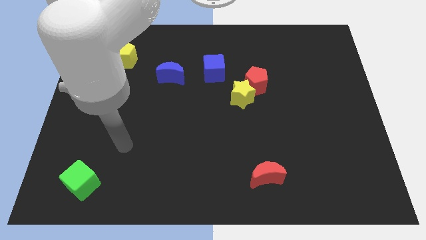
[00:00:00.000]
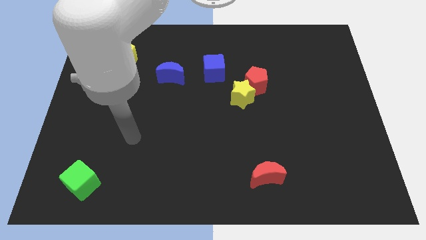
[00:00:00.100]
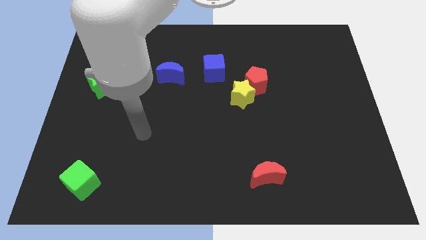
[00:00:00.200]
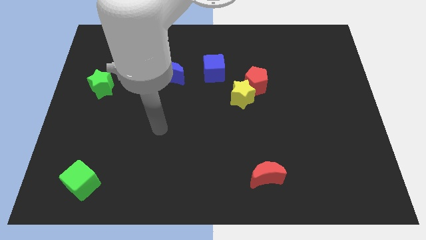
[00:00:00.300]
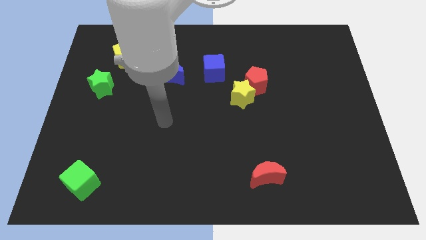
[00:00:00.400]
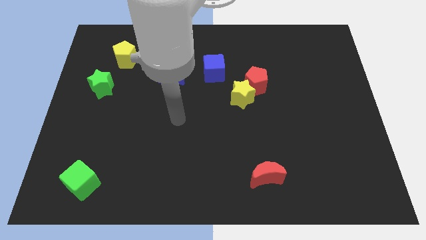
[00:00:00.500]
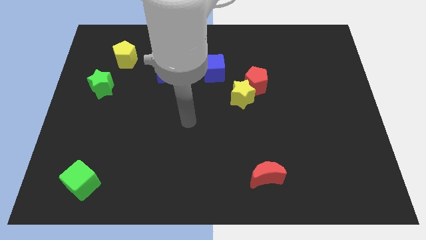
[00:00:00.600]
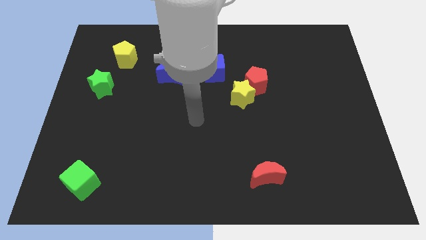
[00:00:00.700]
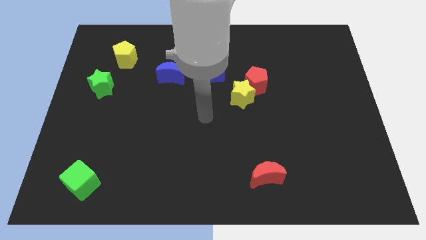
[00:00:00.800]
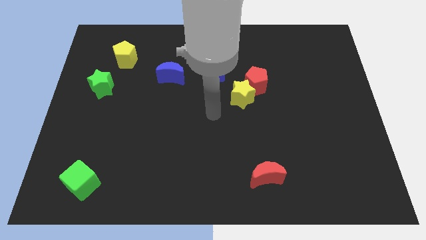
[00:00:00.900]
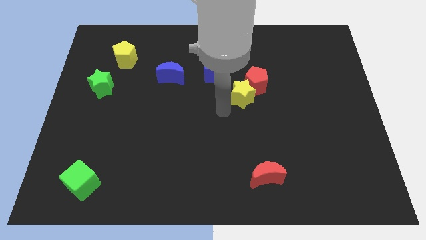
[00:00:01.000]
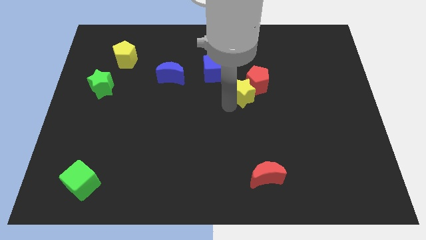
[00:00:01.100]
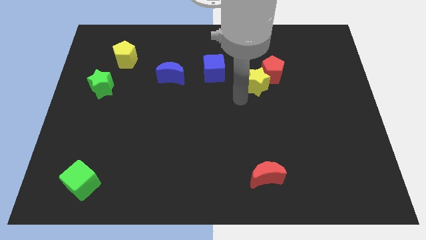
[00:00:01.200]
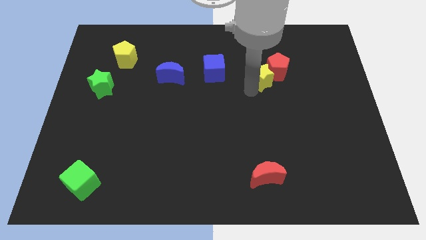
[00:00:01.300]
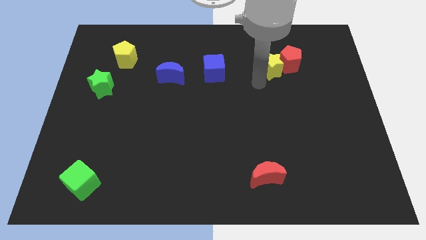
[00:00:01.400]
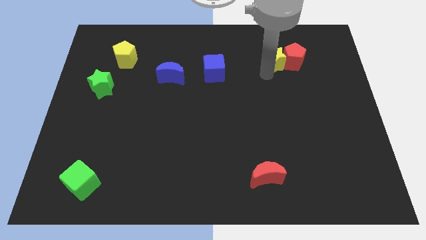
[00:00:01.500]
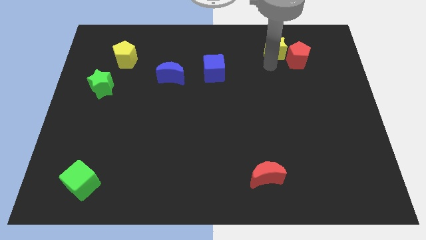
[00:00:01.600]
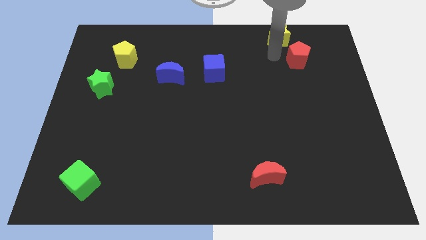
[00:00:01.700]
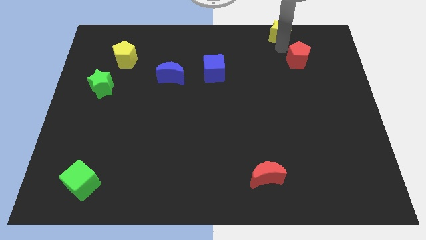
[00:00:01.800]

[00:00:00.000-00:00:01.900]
move the red pentagon away from the yellow star

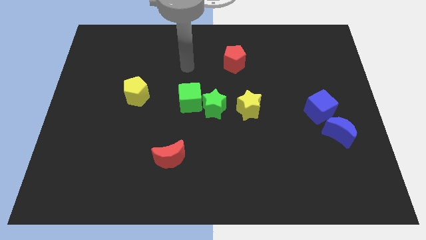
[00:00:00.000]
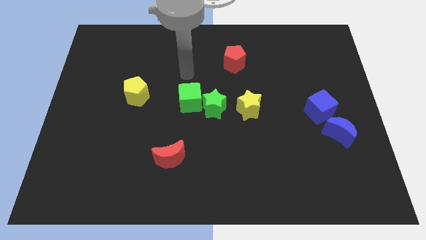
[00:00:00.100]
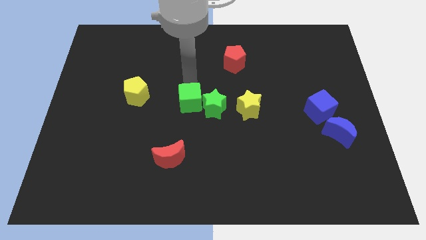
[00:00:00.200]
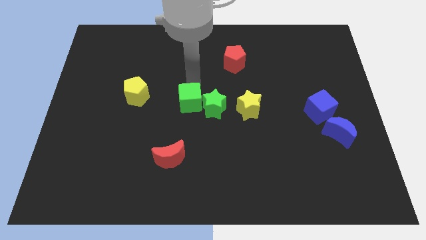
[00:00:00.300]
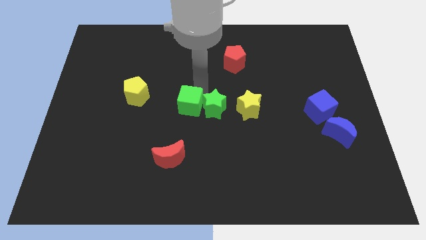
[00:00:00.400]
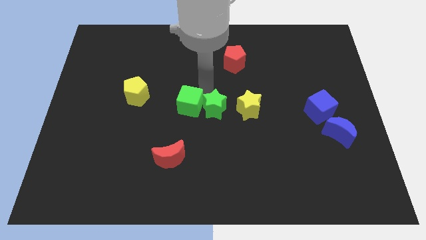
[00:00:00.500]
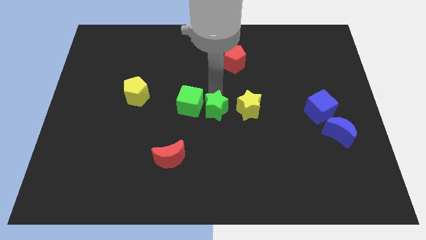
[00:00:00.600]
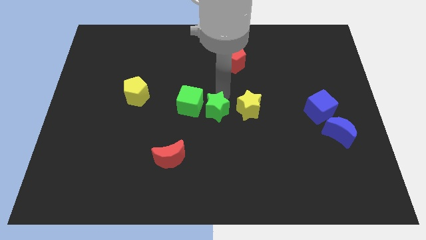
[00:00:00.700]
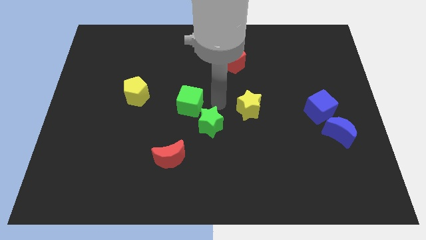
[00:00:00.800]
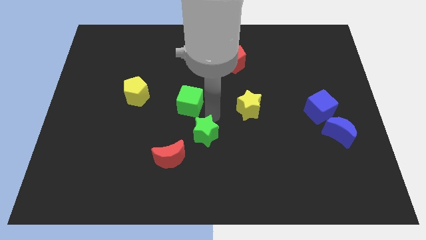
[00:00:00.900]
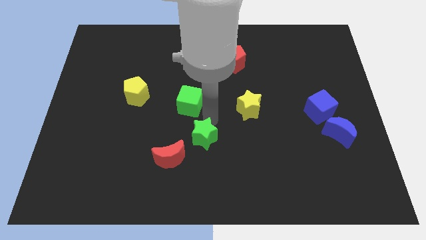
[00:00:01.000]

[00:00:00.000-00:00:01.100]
separate the green cube from the green star

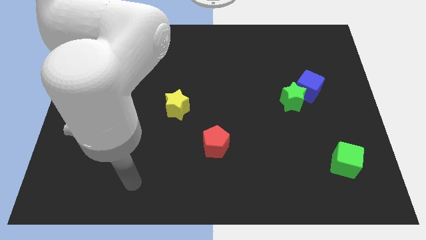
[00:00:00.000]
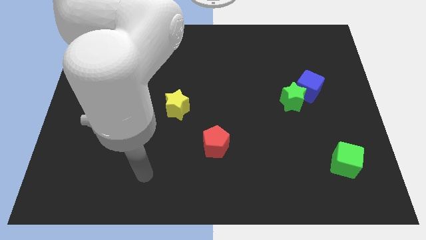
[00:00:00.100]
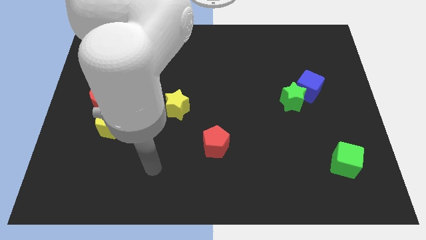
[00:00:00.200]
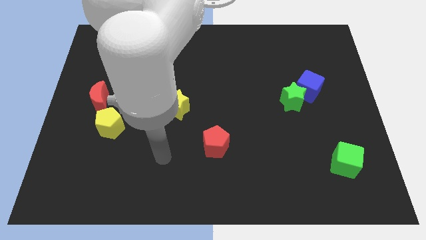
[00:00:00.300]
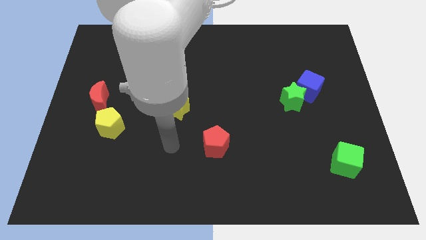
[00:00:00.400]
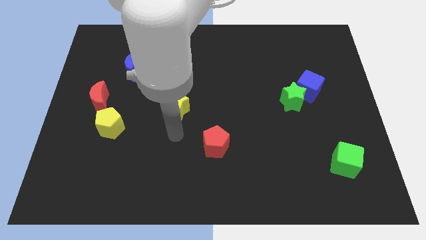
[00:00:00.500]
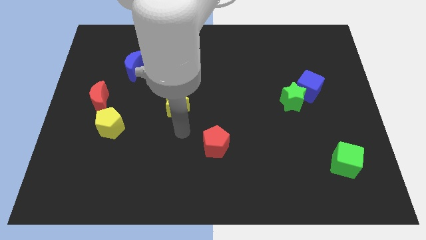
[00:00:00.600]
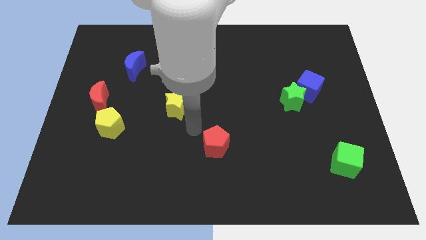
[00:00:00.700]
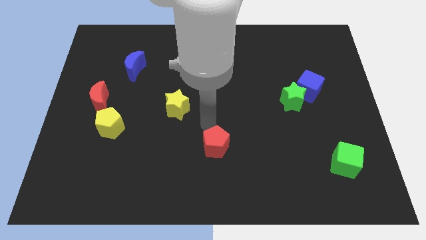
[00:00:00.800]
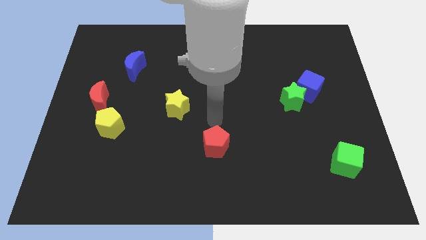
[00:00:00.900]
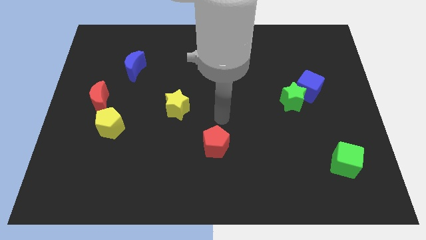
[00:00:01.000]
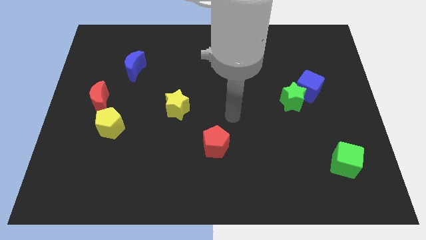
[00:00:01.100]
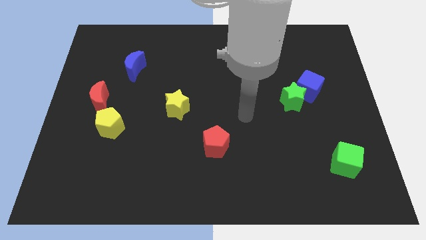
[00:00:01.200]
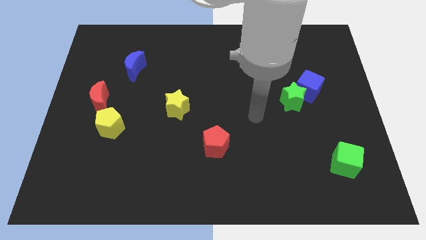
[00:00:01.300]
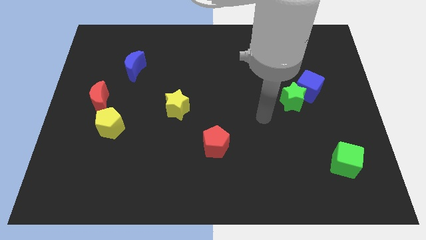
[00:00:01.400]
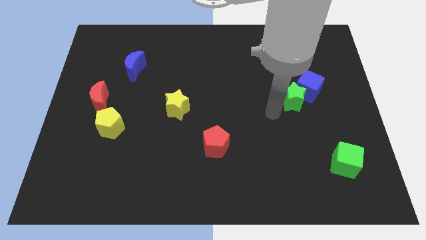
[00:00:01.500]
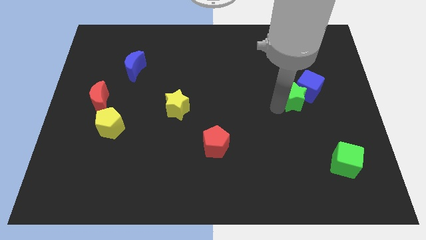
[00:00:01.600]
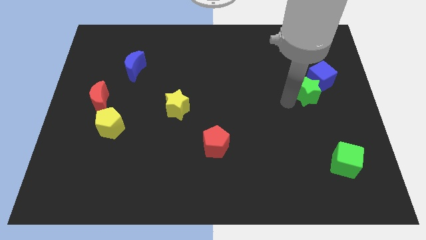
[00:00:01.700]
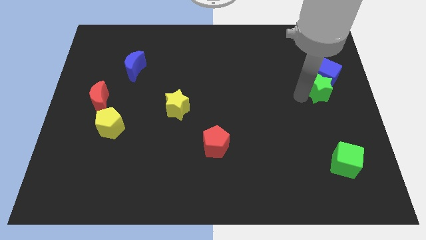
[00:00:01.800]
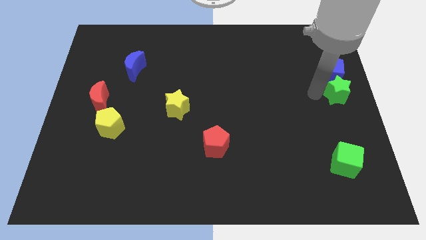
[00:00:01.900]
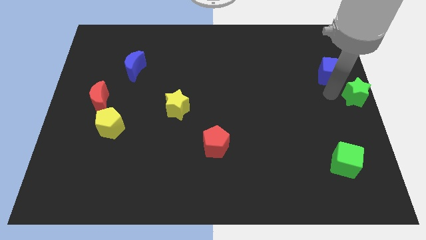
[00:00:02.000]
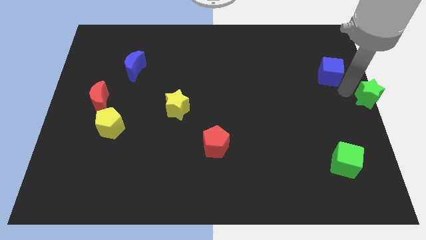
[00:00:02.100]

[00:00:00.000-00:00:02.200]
pull the blue cube apart from the green star

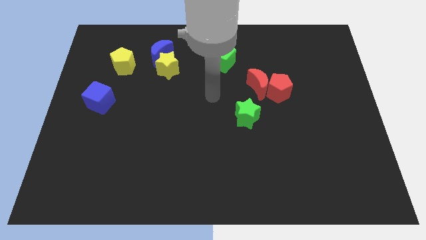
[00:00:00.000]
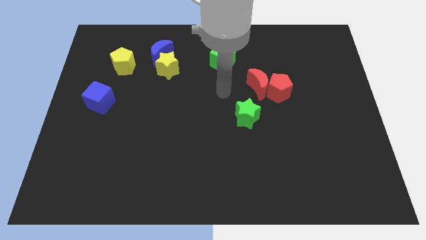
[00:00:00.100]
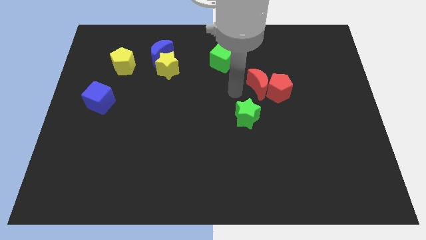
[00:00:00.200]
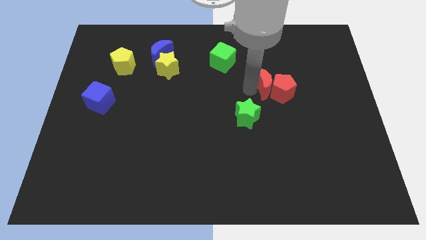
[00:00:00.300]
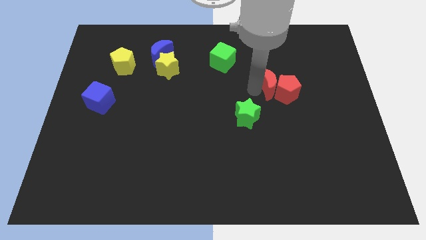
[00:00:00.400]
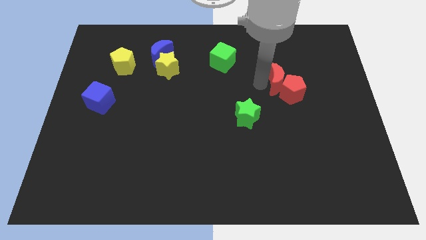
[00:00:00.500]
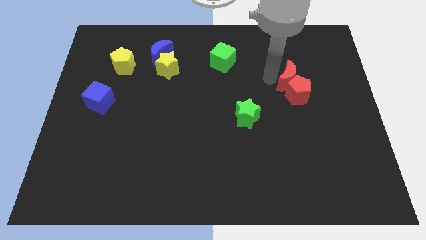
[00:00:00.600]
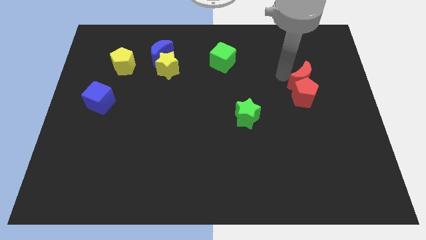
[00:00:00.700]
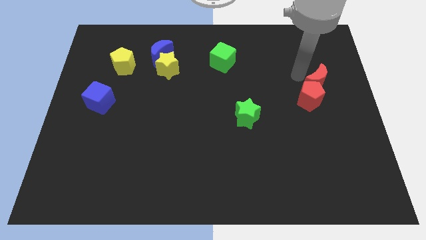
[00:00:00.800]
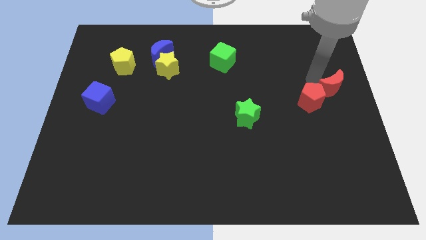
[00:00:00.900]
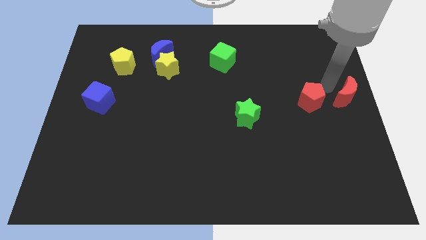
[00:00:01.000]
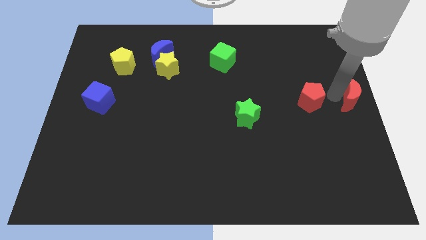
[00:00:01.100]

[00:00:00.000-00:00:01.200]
pull the red pentagon apart from the red moon

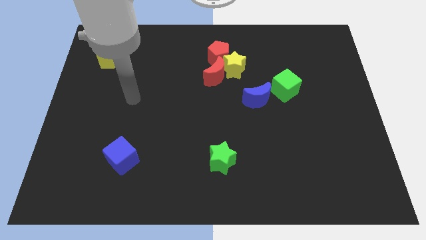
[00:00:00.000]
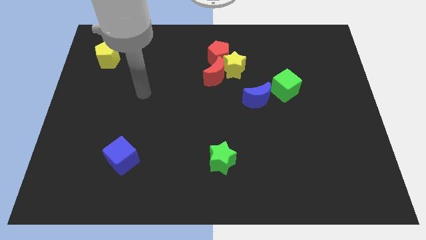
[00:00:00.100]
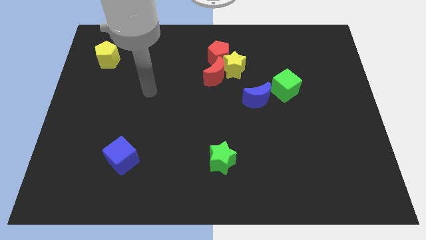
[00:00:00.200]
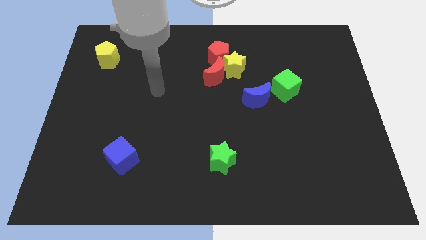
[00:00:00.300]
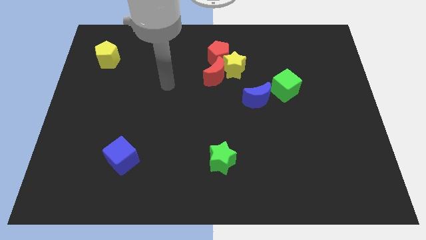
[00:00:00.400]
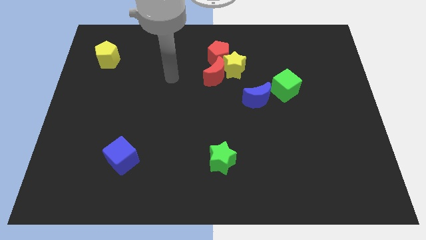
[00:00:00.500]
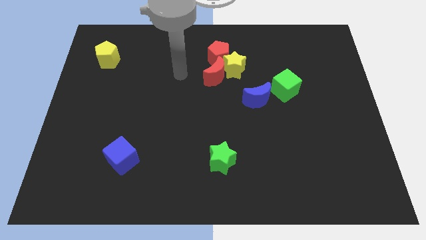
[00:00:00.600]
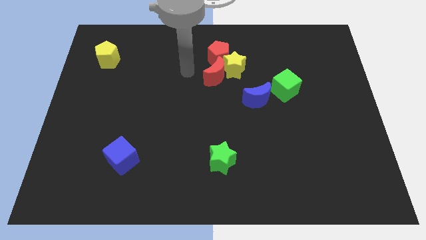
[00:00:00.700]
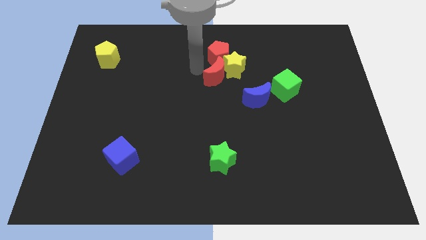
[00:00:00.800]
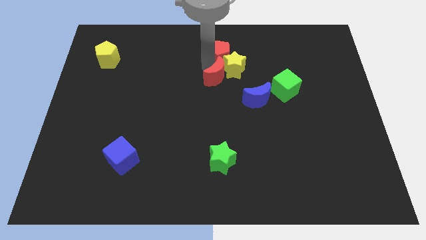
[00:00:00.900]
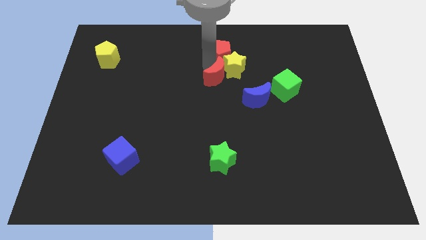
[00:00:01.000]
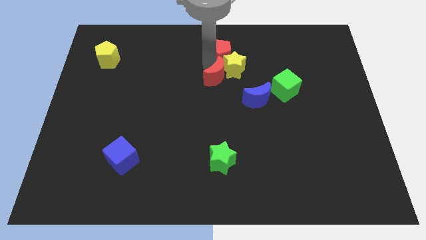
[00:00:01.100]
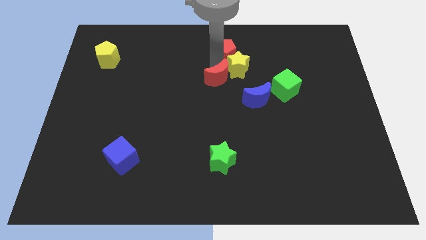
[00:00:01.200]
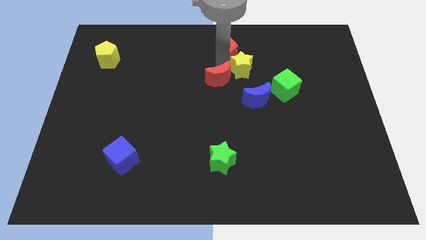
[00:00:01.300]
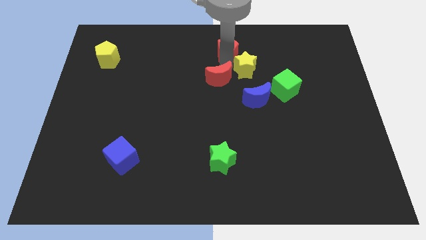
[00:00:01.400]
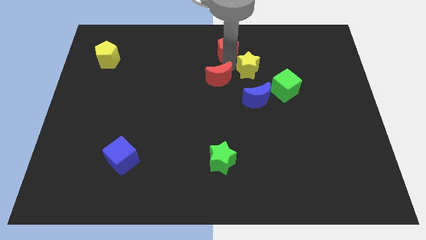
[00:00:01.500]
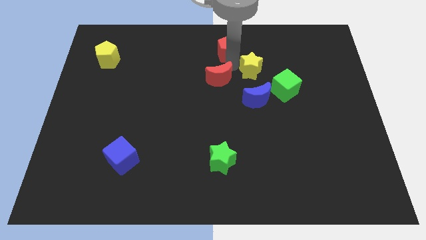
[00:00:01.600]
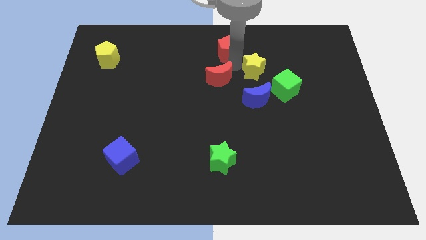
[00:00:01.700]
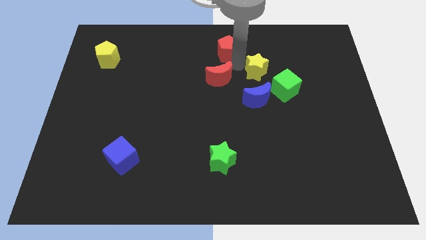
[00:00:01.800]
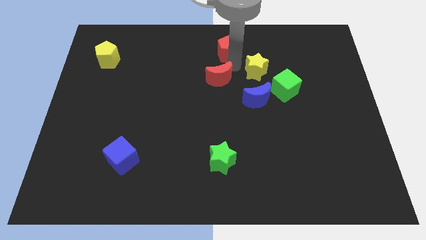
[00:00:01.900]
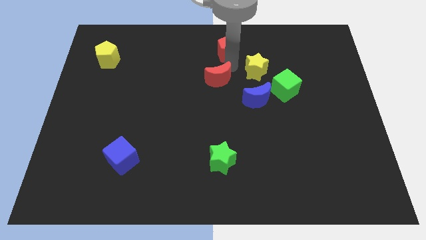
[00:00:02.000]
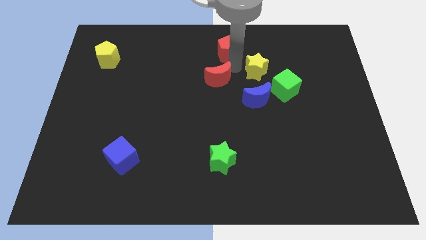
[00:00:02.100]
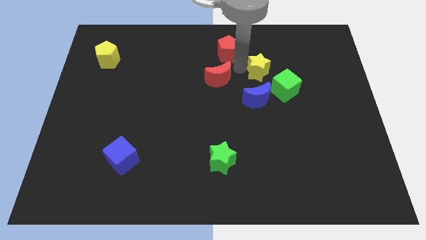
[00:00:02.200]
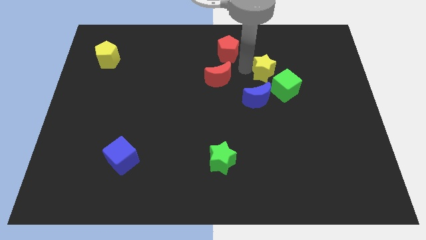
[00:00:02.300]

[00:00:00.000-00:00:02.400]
move the yellow star away from the red moon and red pentagon

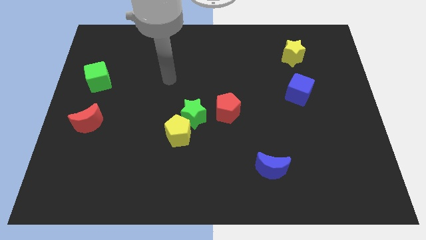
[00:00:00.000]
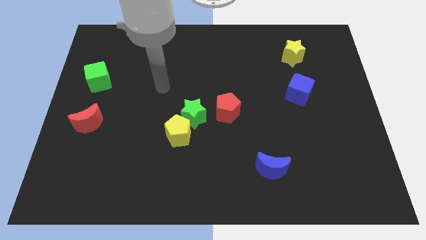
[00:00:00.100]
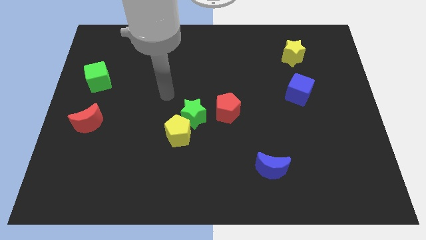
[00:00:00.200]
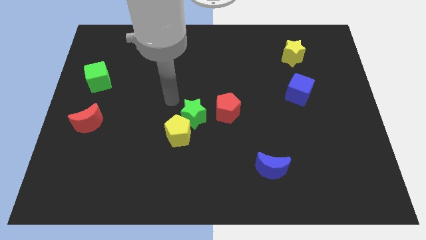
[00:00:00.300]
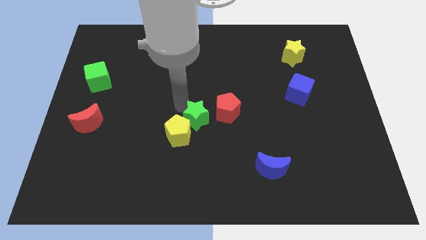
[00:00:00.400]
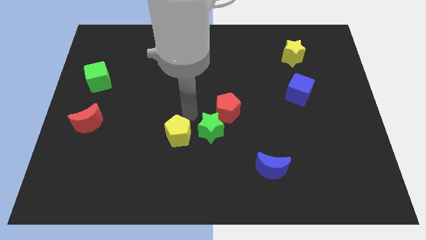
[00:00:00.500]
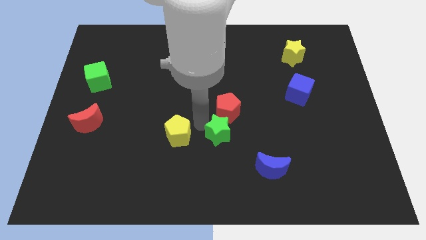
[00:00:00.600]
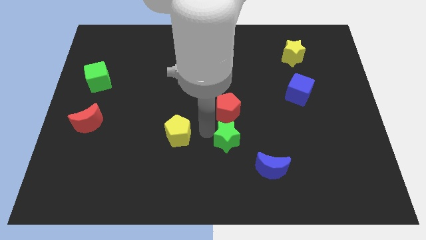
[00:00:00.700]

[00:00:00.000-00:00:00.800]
separate the yellow pentagon from the green star
